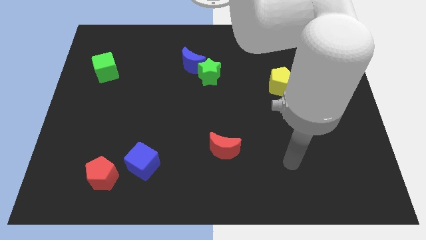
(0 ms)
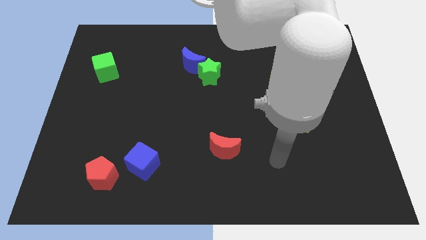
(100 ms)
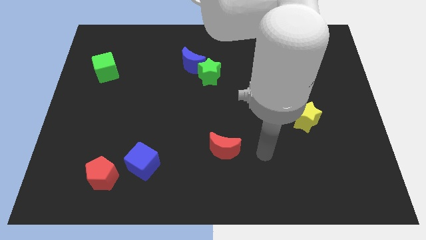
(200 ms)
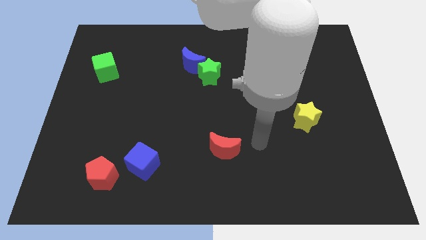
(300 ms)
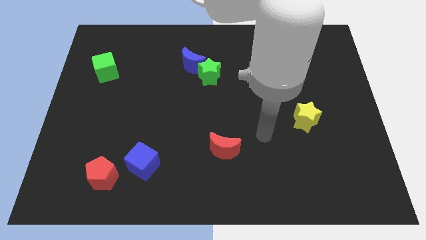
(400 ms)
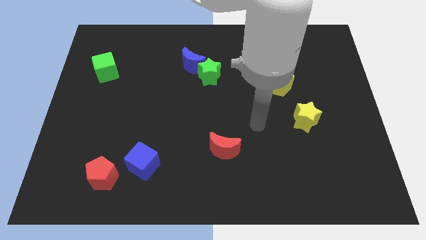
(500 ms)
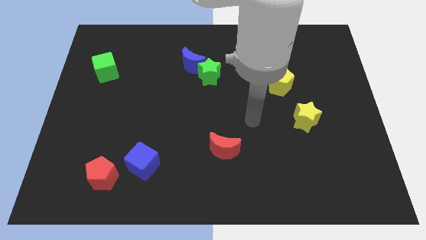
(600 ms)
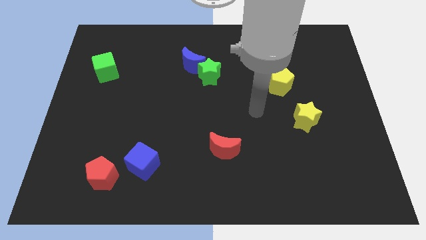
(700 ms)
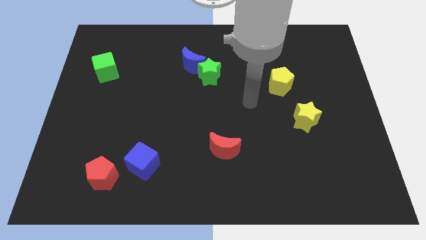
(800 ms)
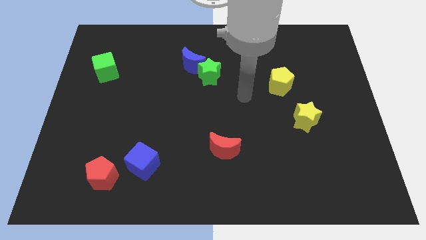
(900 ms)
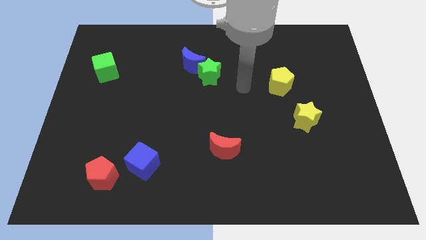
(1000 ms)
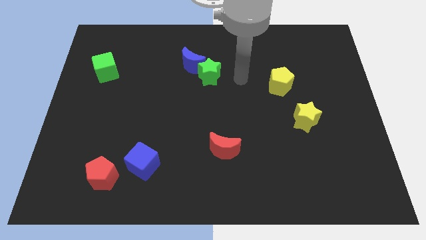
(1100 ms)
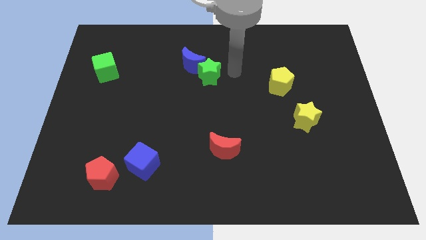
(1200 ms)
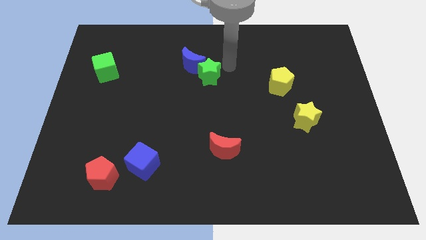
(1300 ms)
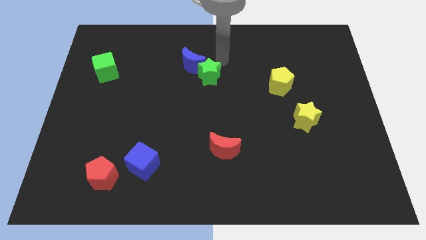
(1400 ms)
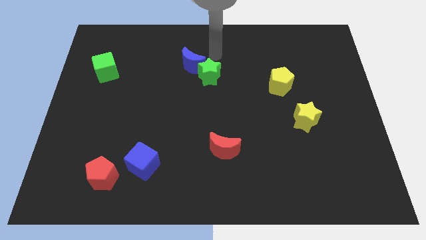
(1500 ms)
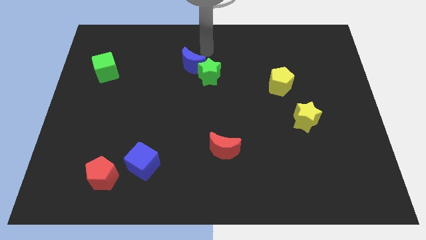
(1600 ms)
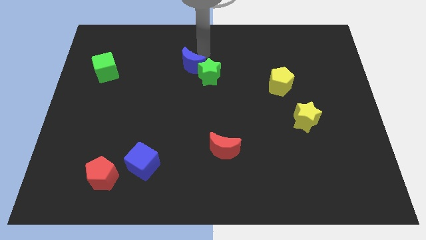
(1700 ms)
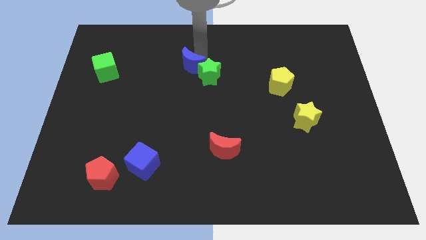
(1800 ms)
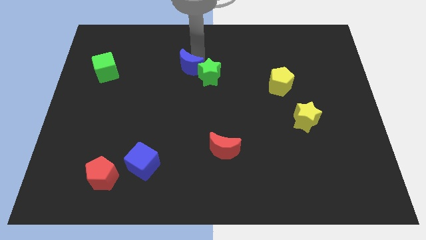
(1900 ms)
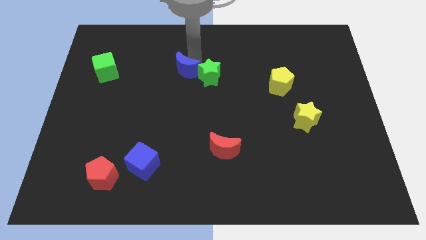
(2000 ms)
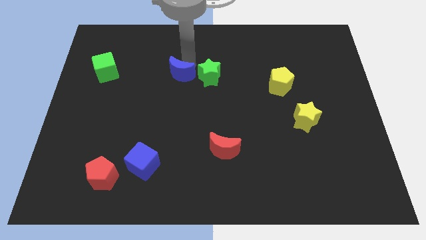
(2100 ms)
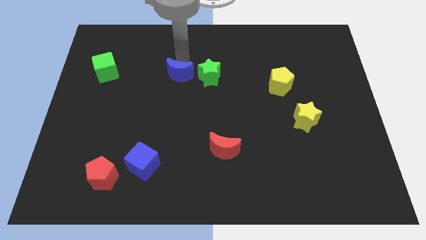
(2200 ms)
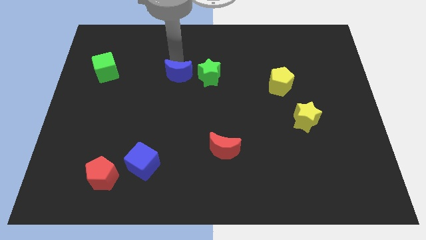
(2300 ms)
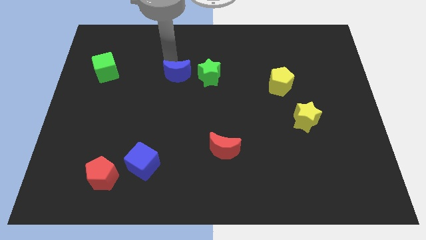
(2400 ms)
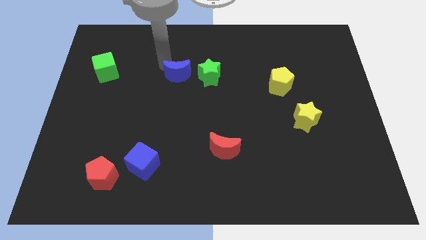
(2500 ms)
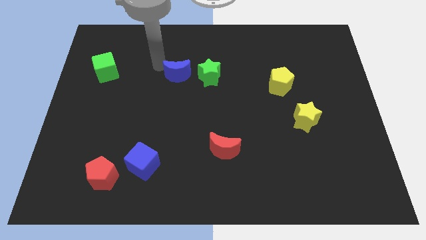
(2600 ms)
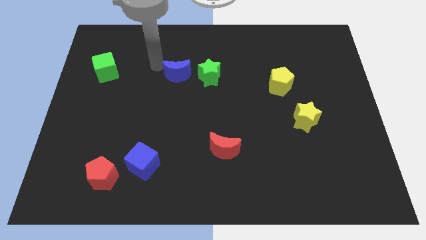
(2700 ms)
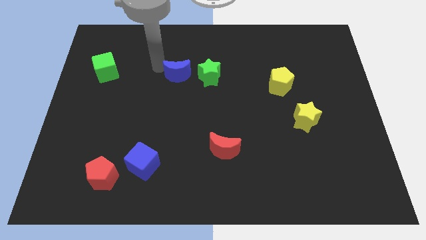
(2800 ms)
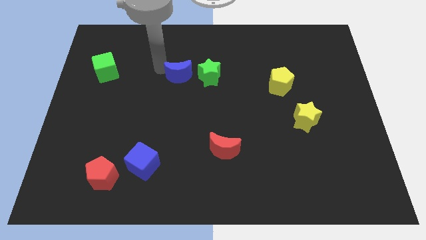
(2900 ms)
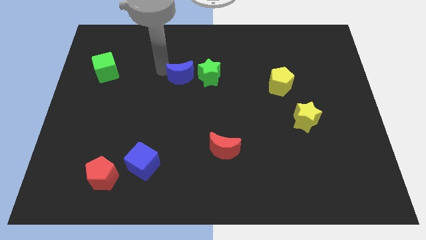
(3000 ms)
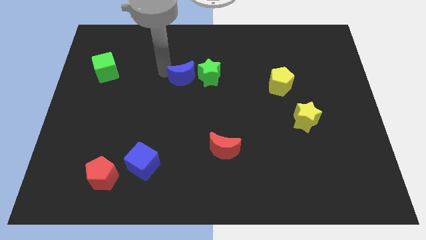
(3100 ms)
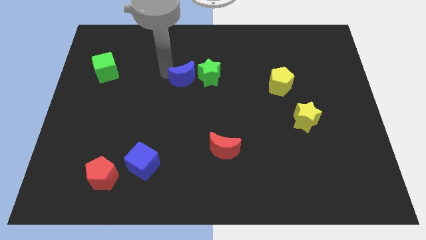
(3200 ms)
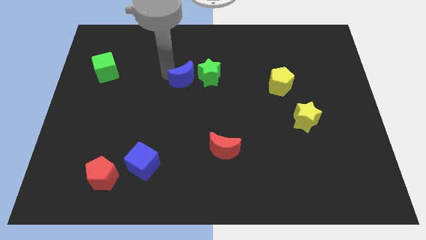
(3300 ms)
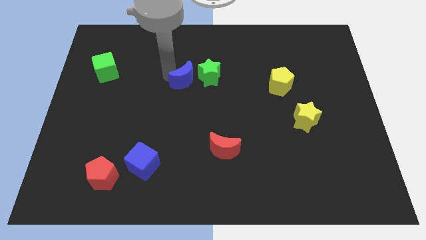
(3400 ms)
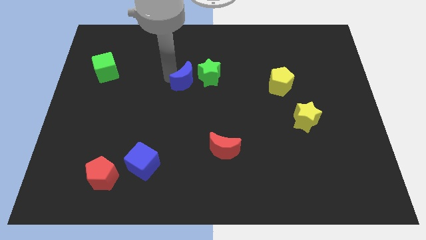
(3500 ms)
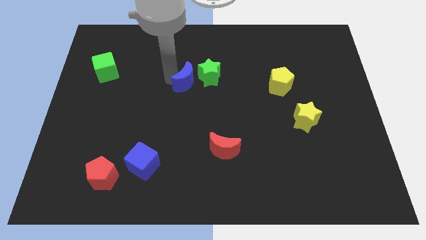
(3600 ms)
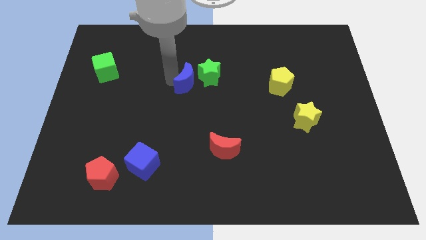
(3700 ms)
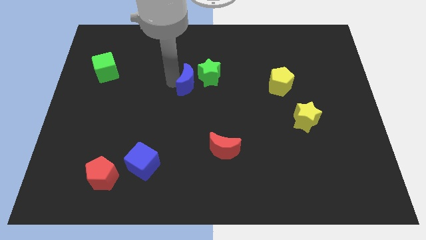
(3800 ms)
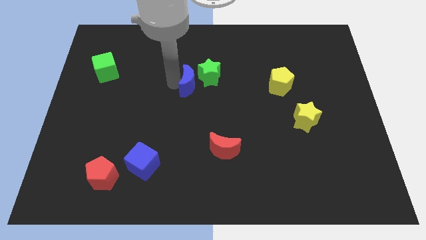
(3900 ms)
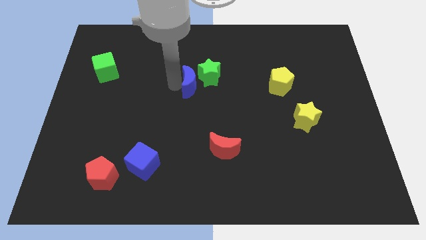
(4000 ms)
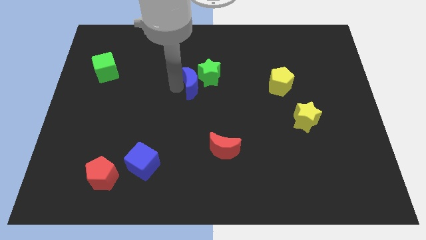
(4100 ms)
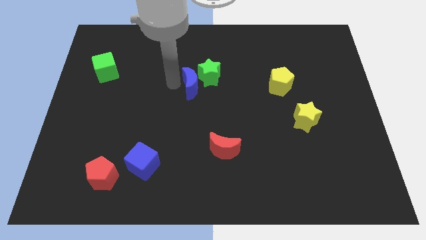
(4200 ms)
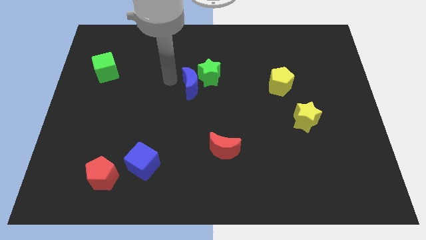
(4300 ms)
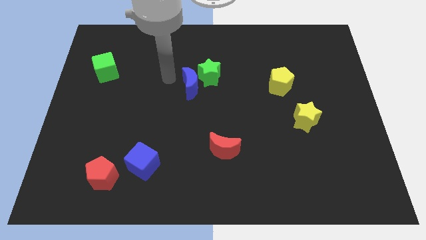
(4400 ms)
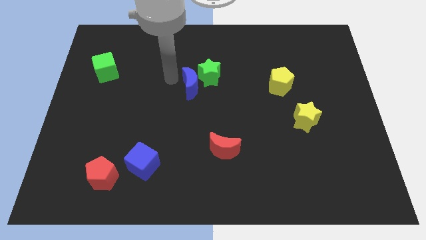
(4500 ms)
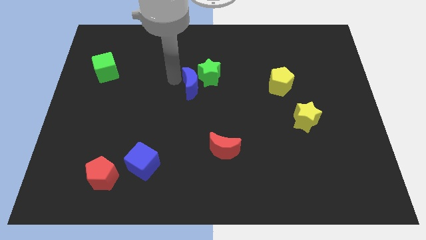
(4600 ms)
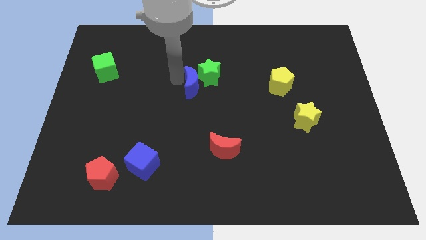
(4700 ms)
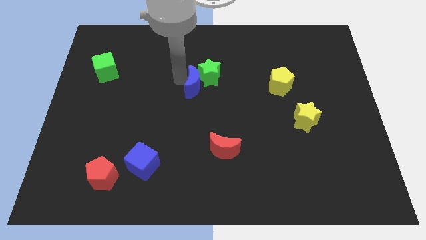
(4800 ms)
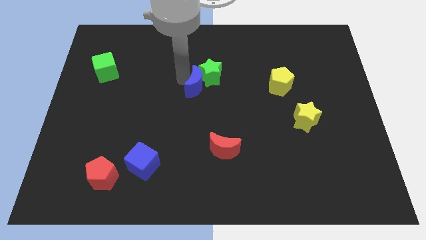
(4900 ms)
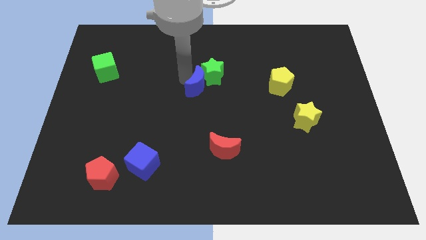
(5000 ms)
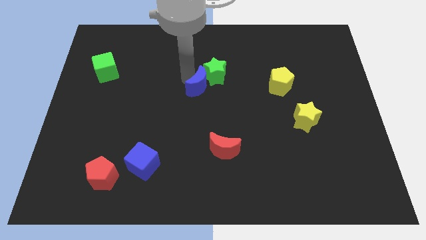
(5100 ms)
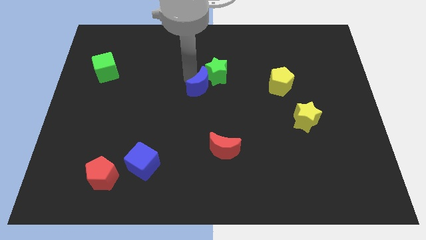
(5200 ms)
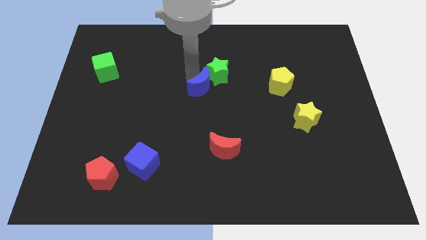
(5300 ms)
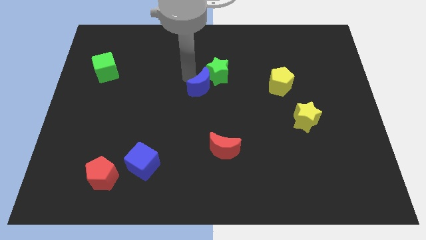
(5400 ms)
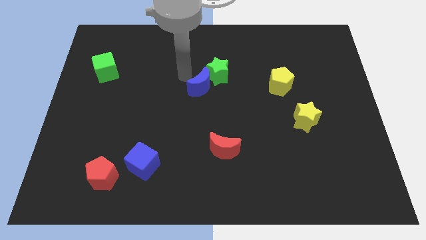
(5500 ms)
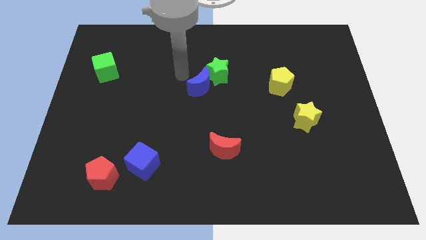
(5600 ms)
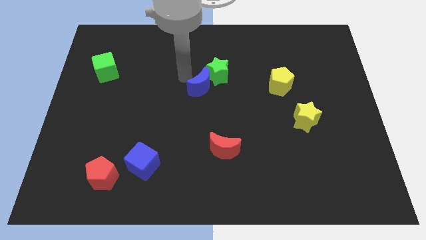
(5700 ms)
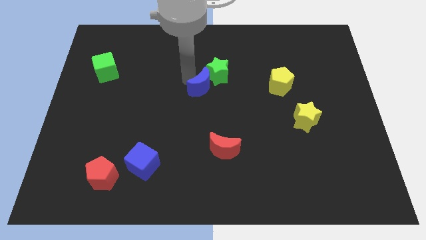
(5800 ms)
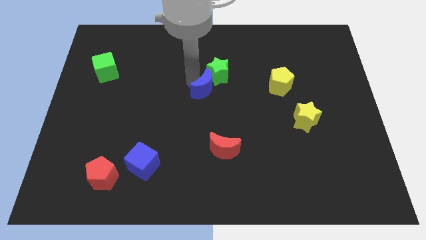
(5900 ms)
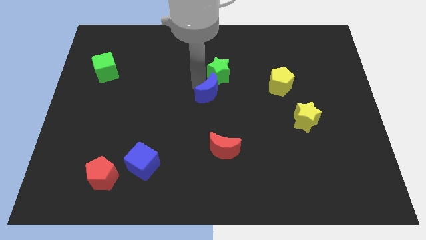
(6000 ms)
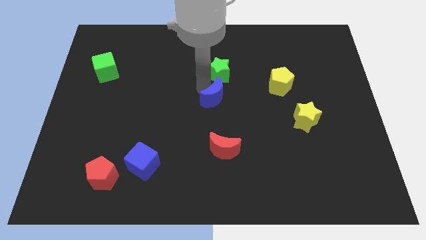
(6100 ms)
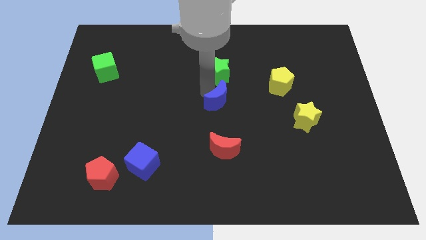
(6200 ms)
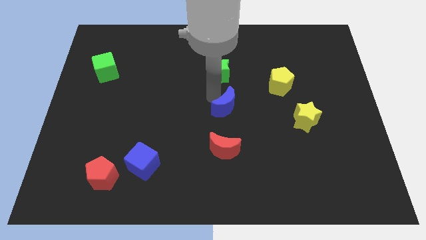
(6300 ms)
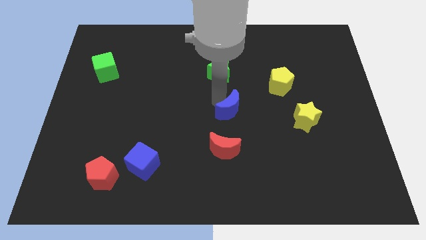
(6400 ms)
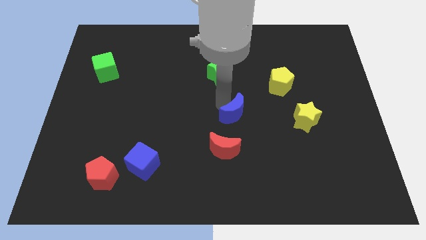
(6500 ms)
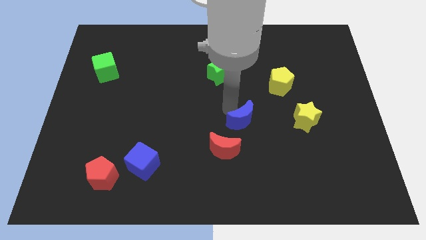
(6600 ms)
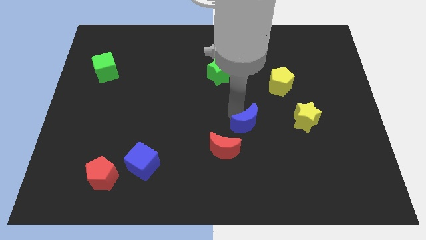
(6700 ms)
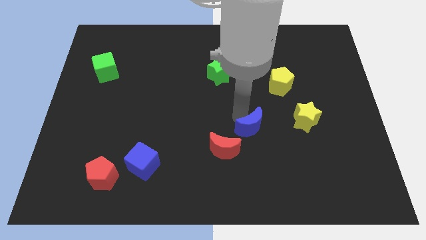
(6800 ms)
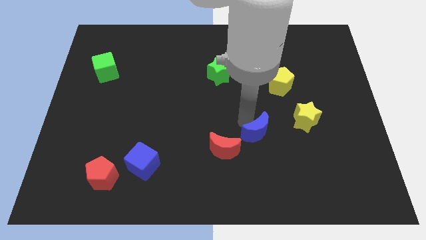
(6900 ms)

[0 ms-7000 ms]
slide the blue moon just right of the red moon
